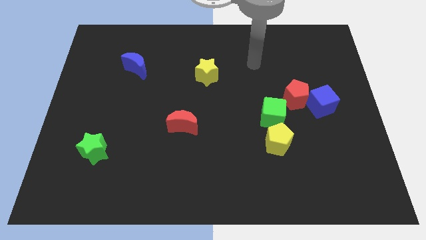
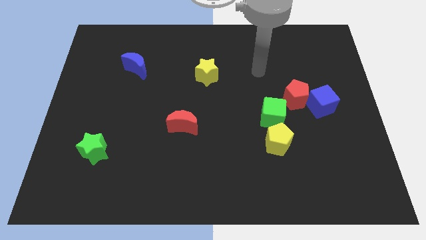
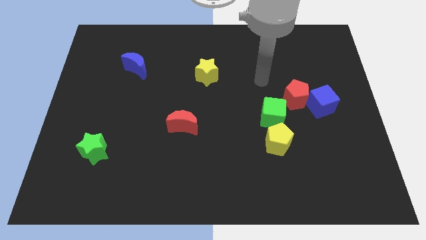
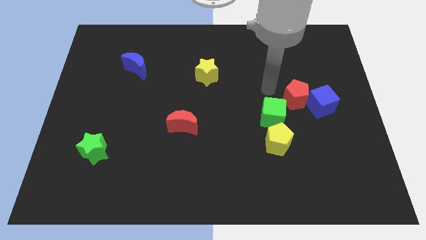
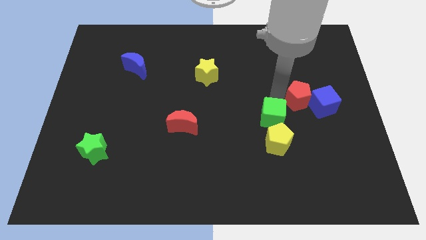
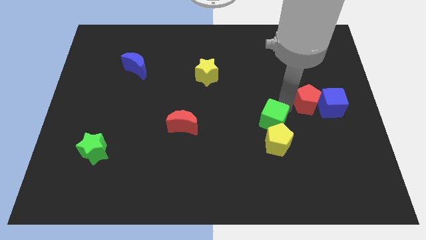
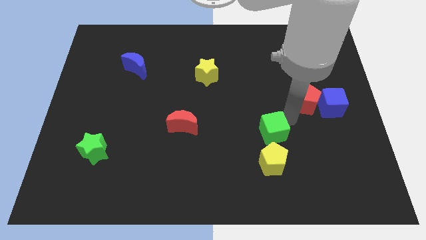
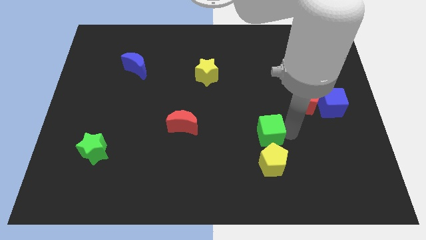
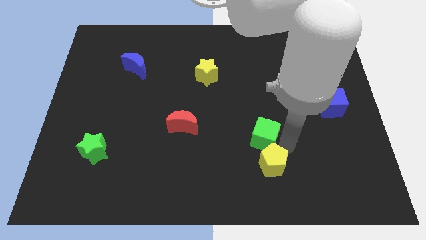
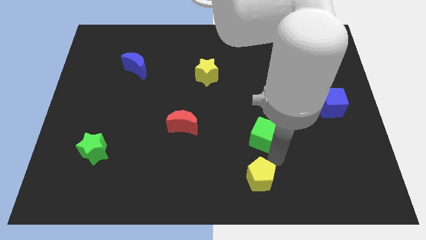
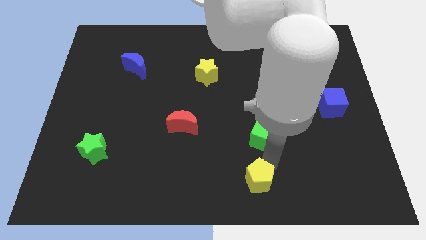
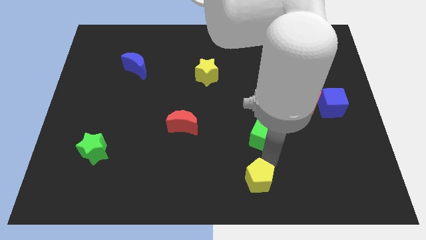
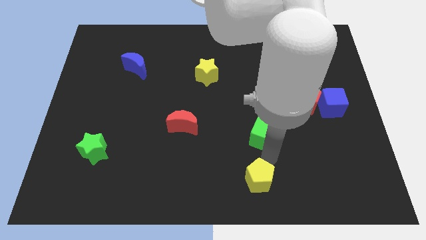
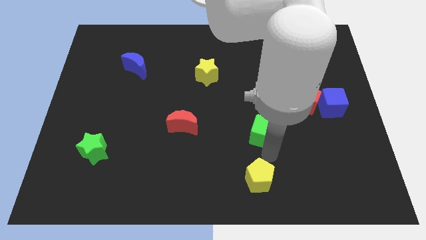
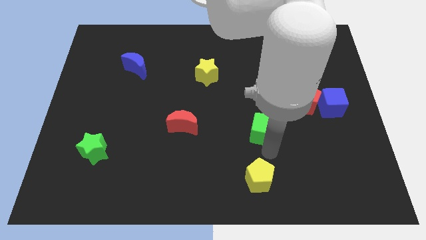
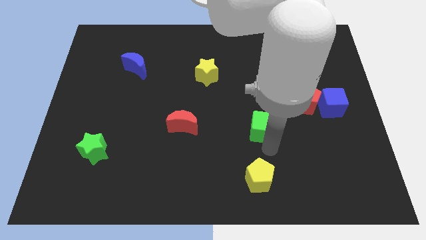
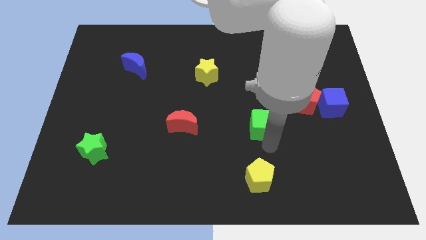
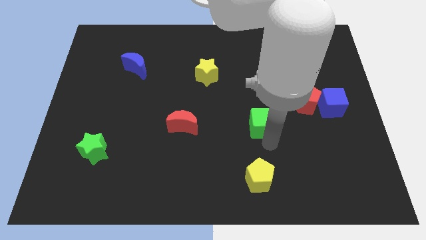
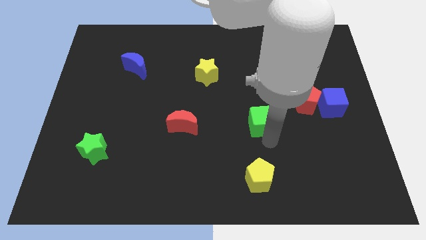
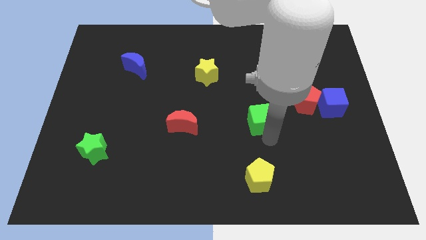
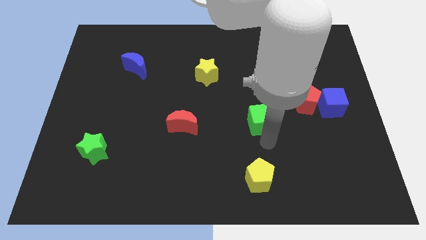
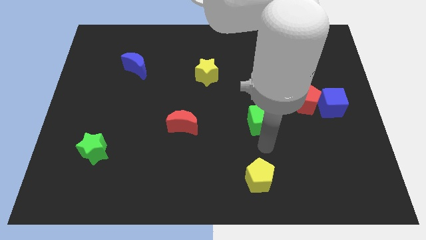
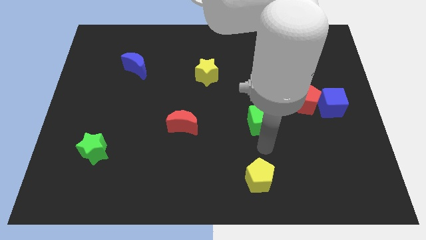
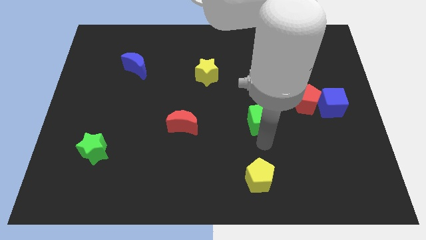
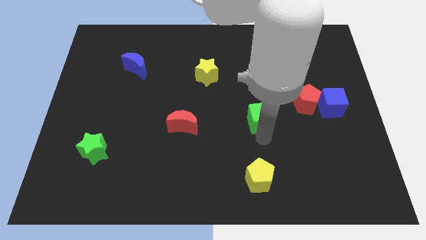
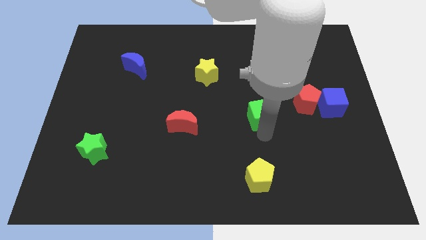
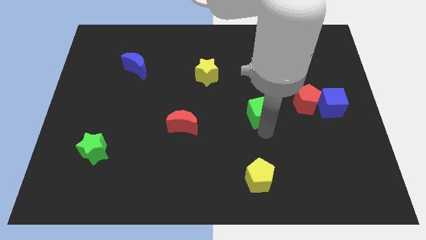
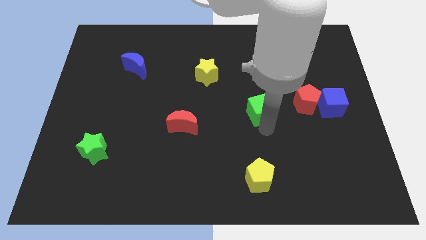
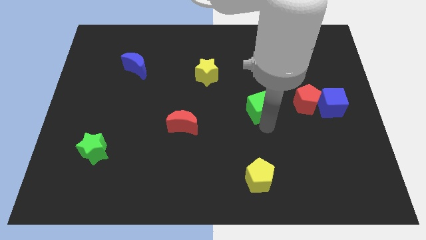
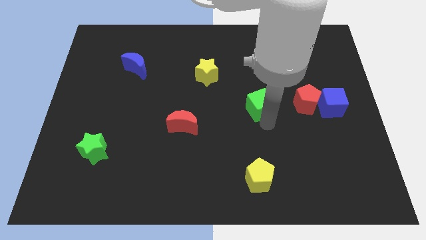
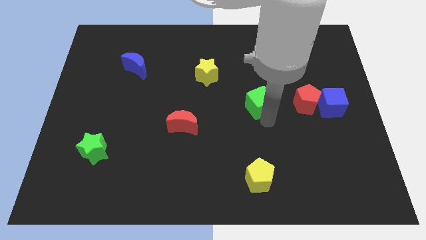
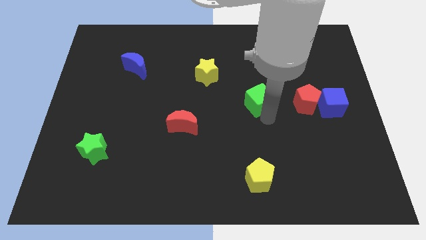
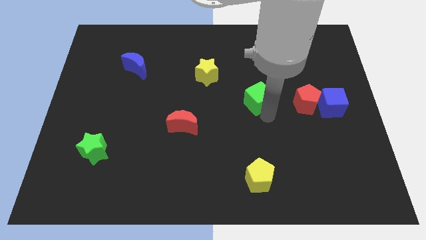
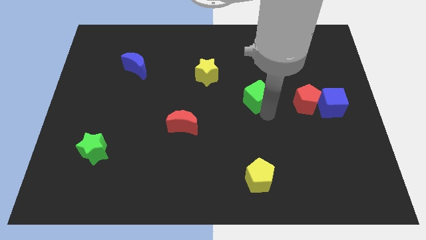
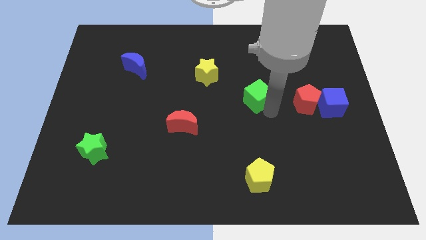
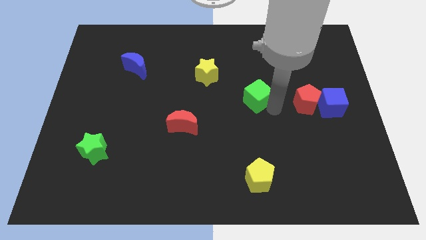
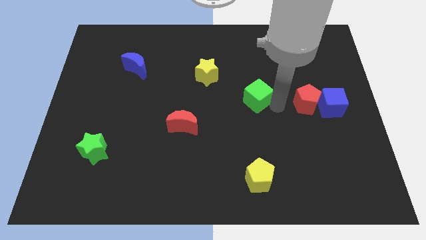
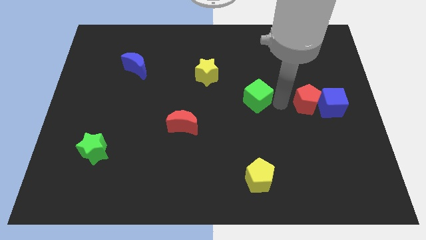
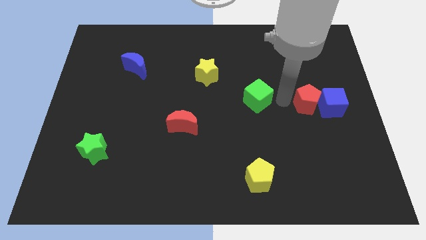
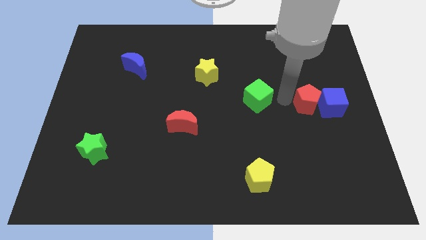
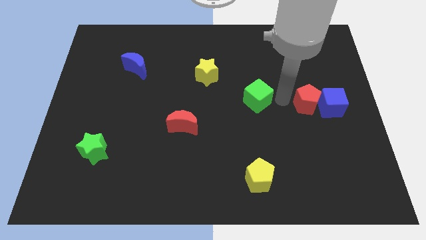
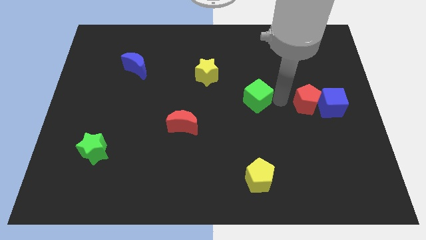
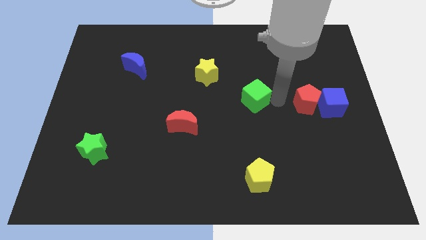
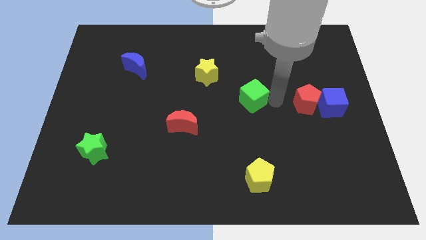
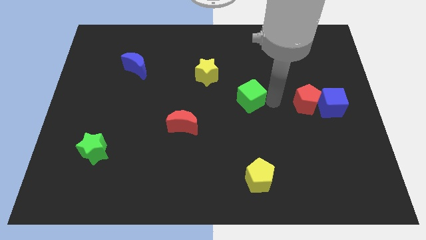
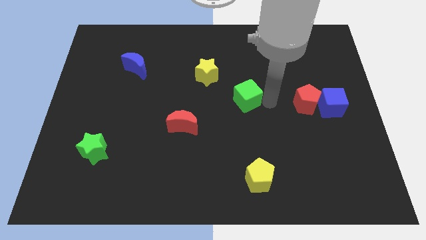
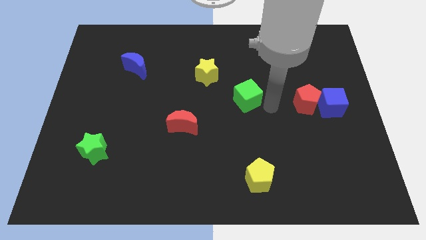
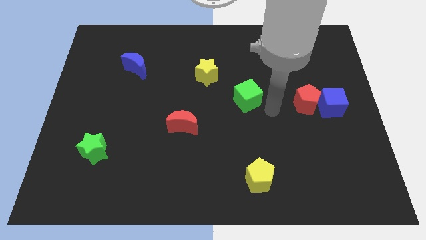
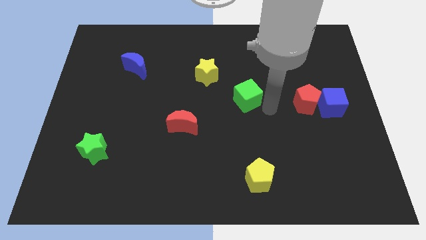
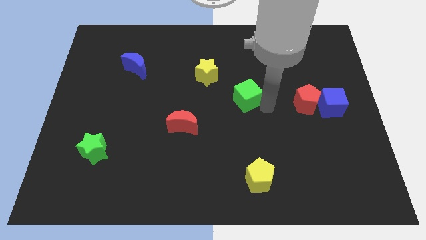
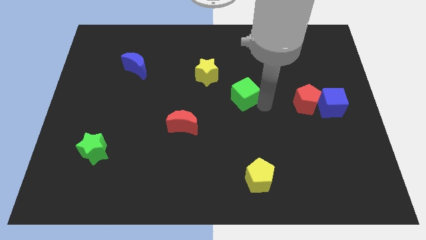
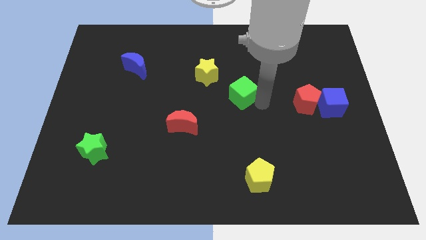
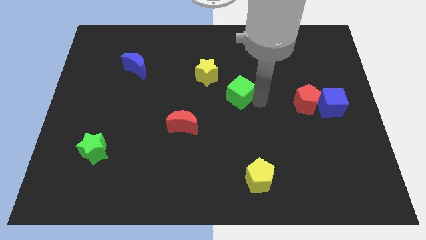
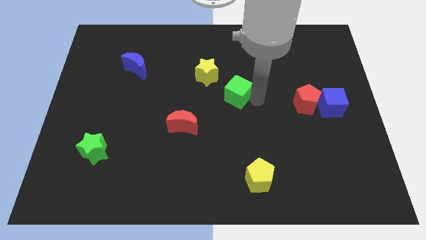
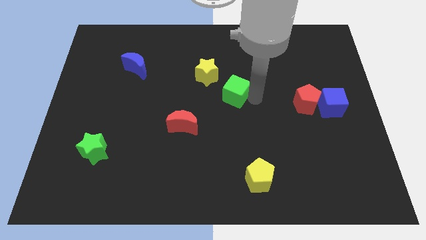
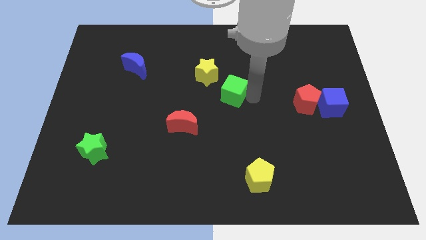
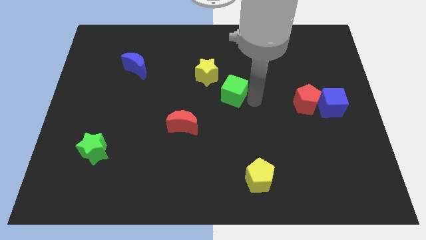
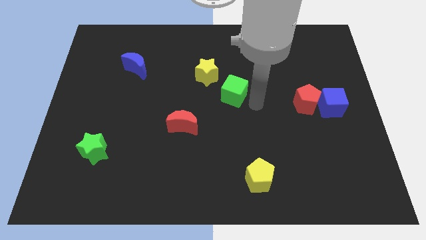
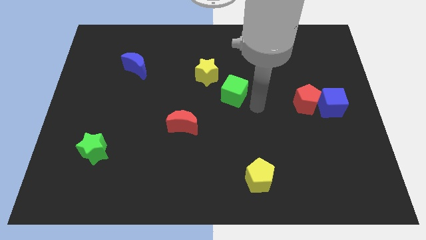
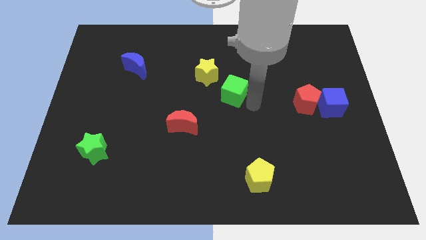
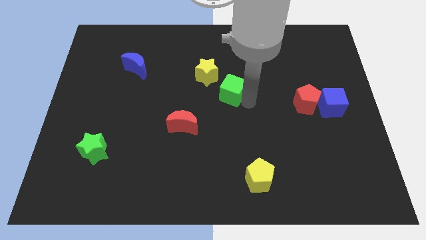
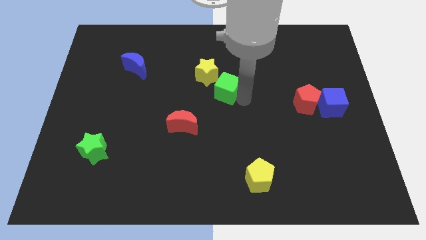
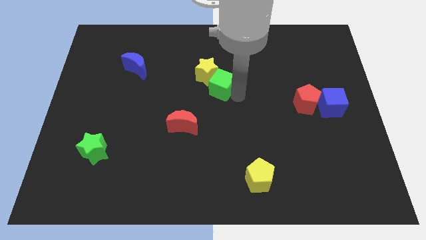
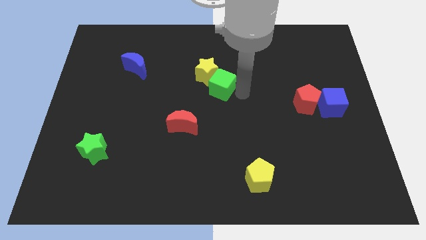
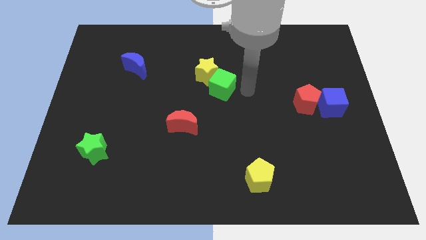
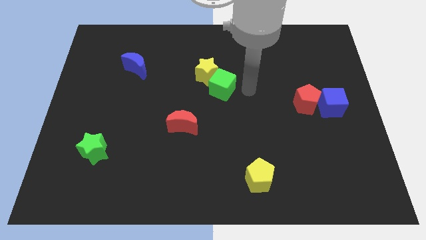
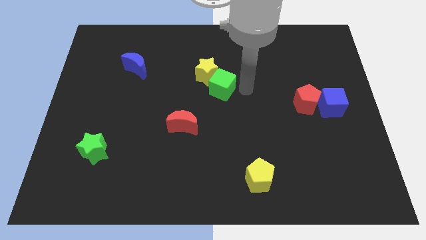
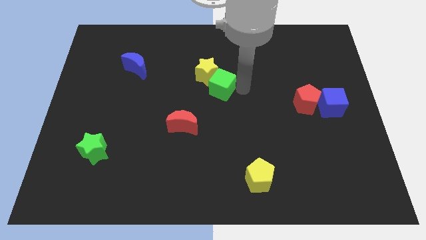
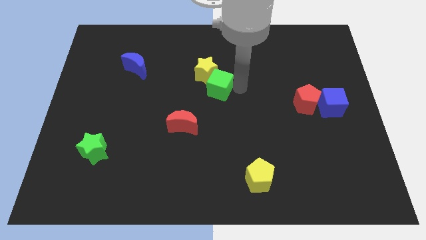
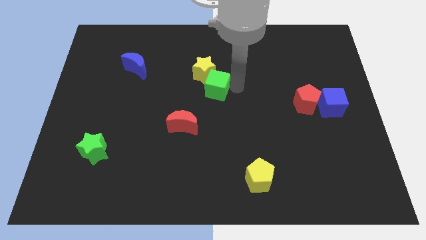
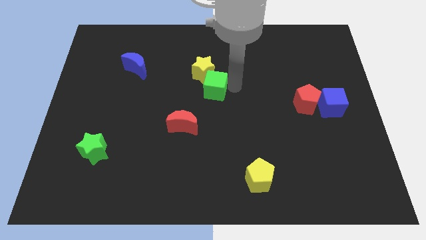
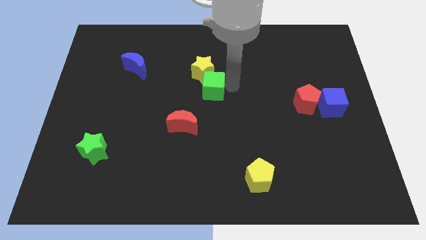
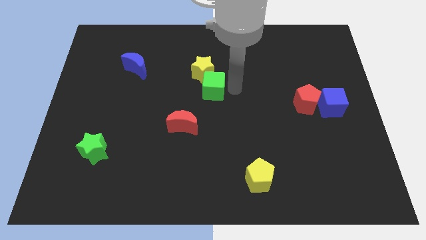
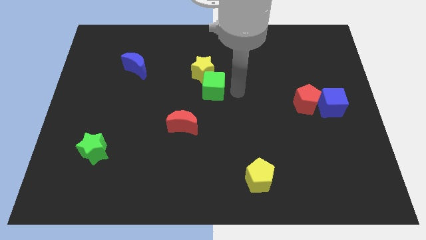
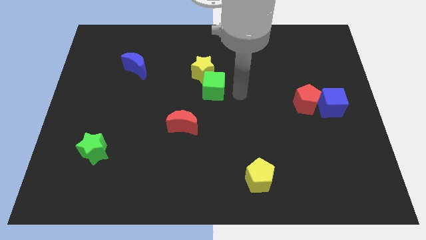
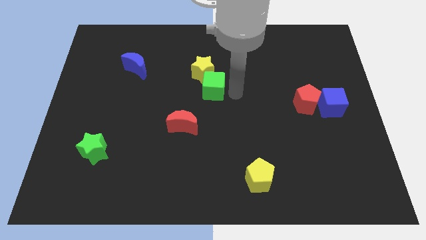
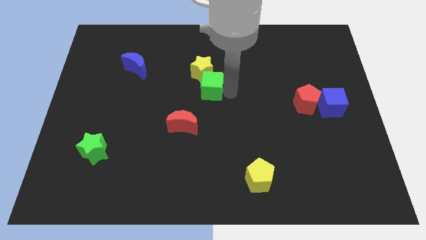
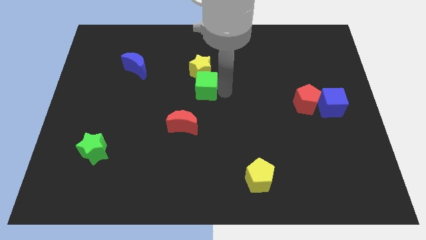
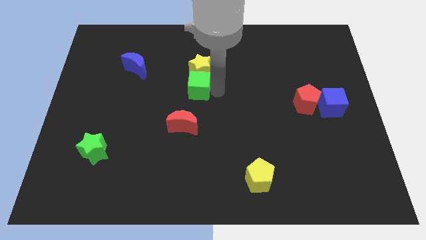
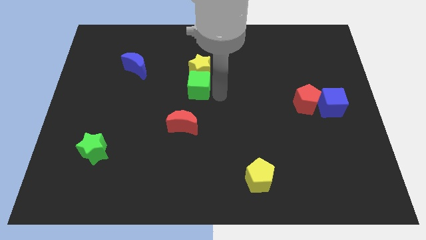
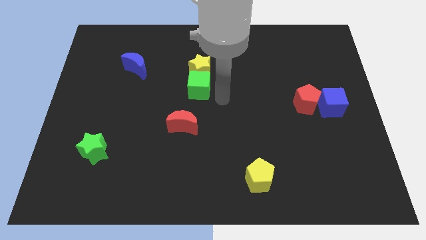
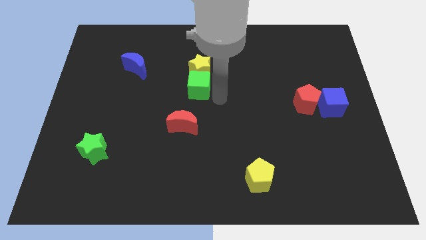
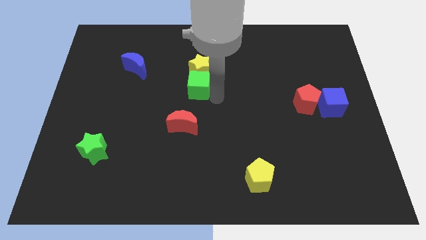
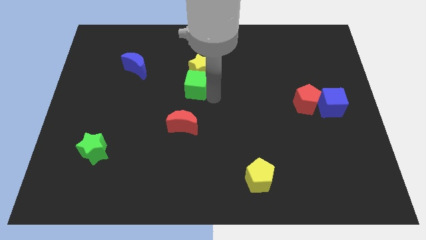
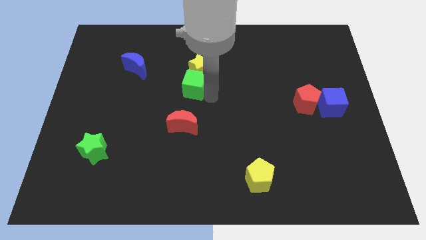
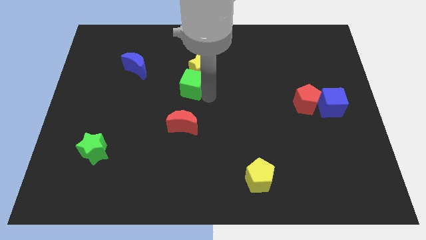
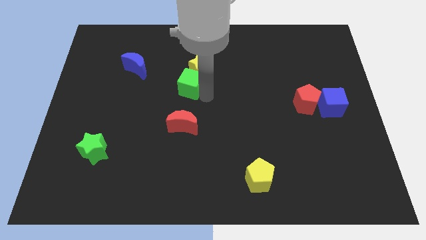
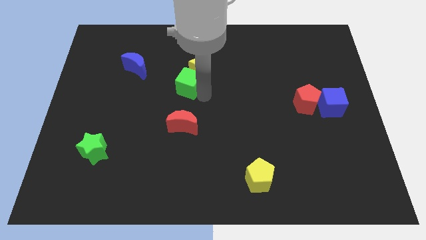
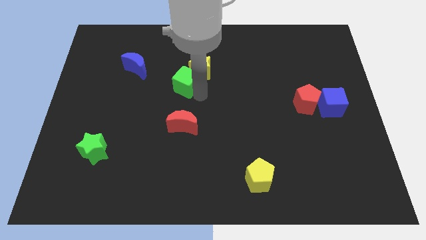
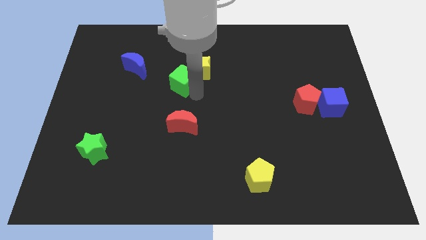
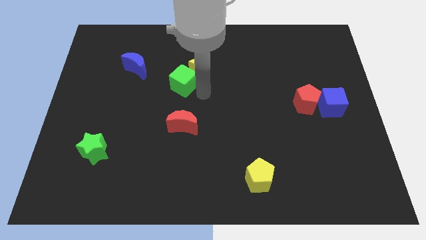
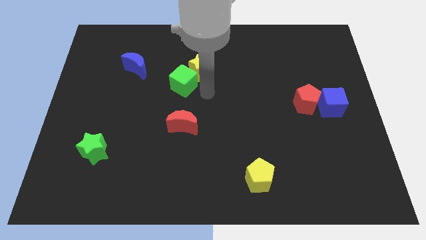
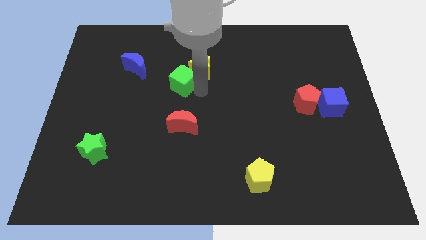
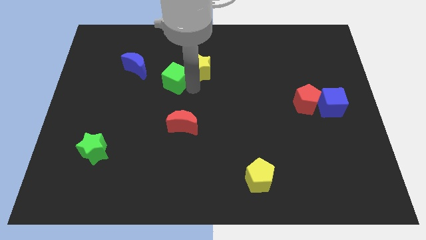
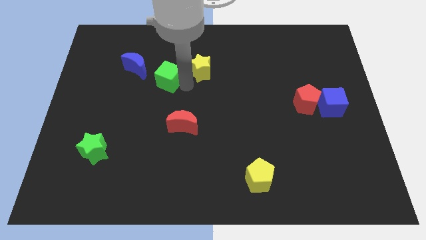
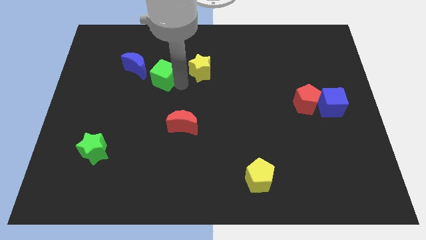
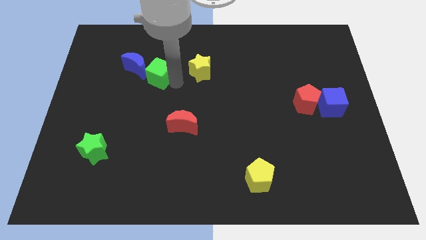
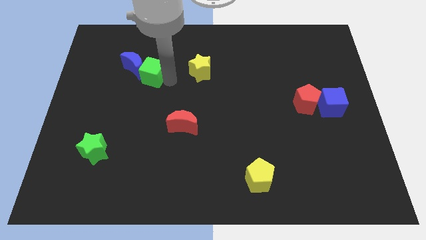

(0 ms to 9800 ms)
slide the green cube towards the blue moon
